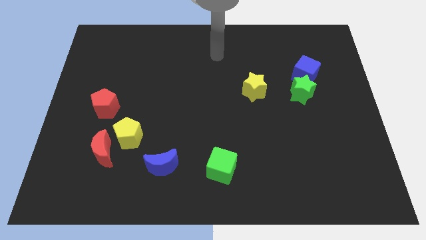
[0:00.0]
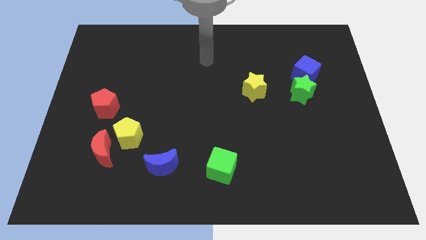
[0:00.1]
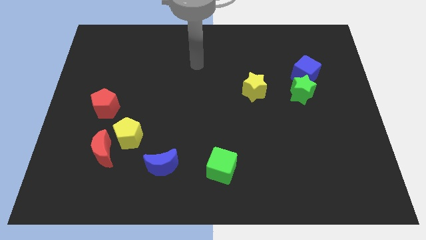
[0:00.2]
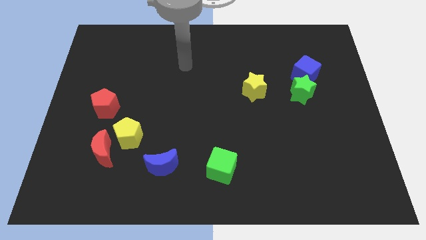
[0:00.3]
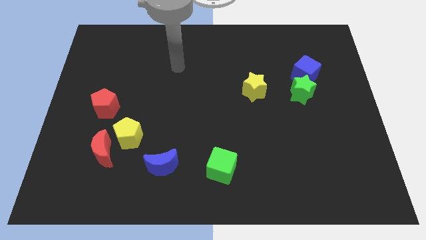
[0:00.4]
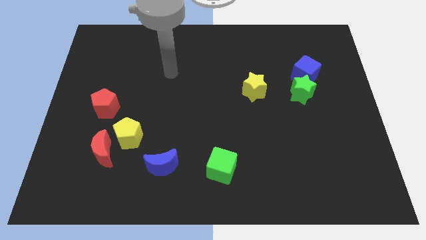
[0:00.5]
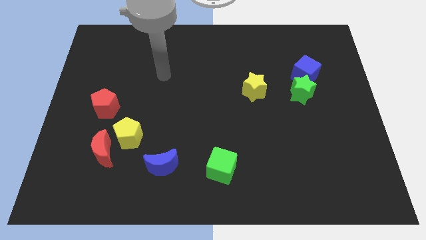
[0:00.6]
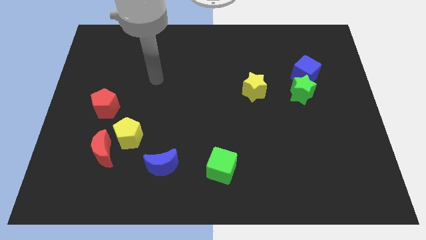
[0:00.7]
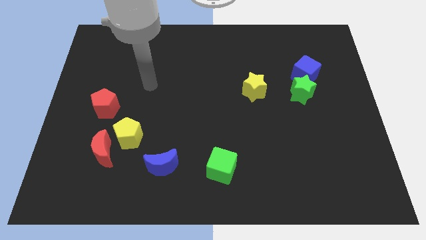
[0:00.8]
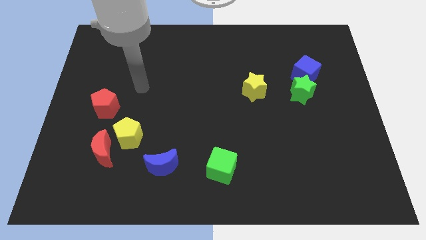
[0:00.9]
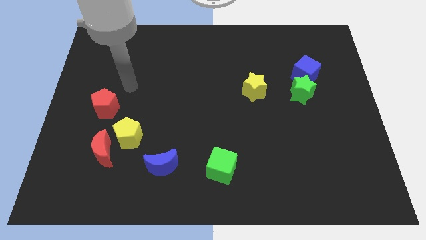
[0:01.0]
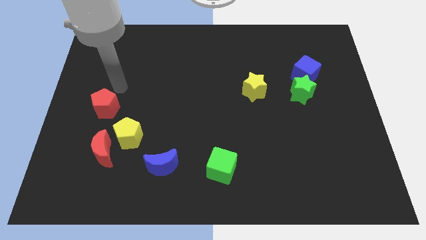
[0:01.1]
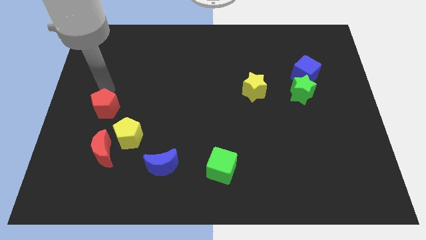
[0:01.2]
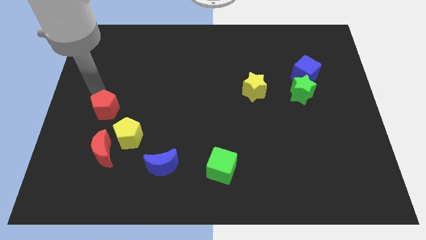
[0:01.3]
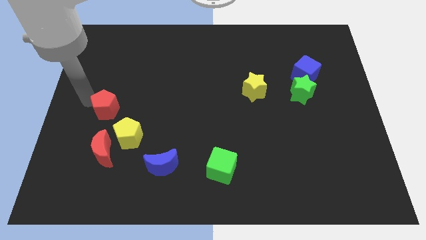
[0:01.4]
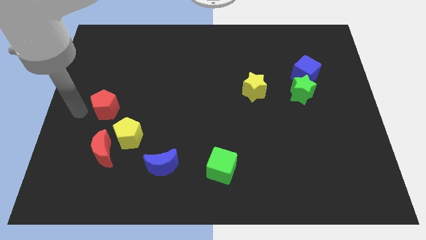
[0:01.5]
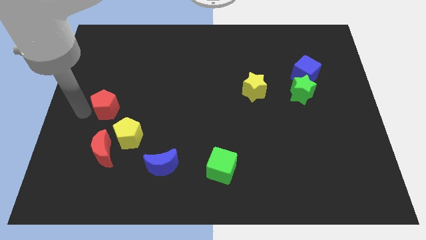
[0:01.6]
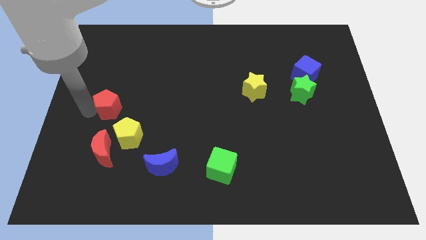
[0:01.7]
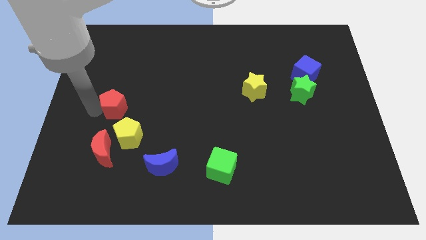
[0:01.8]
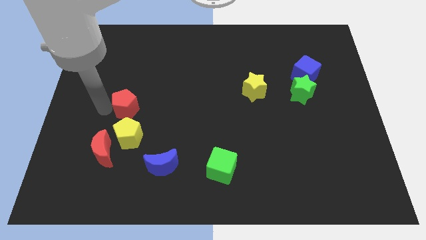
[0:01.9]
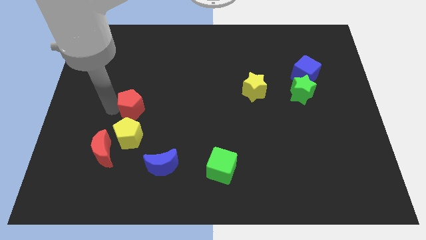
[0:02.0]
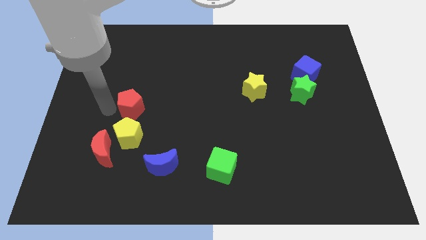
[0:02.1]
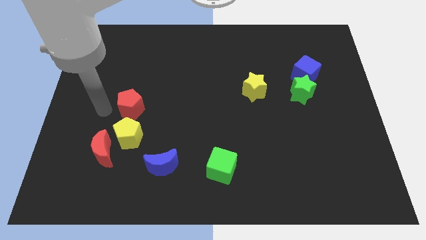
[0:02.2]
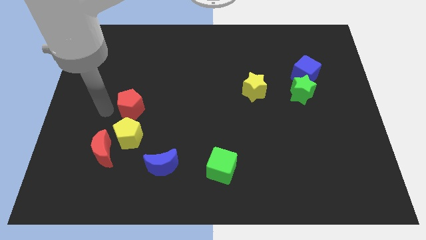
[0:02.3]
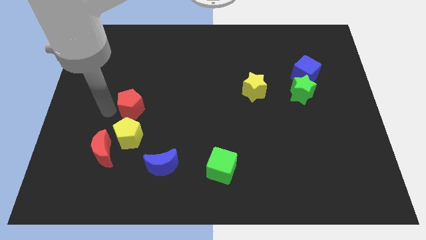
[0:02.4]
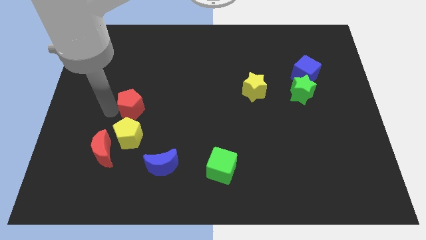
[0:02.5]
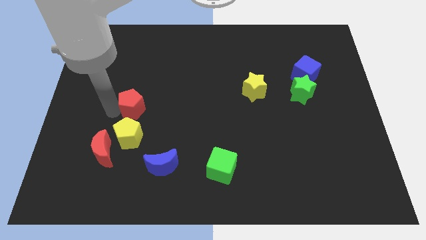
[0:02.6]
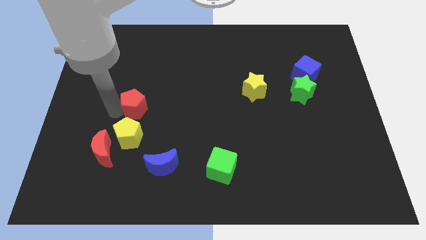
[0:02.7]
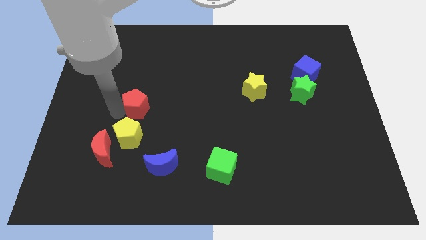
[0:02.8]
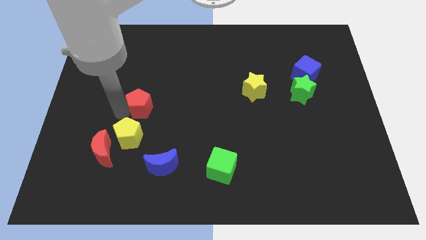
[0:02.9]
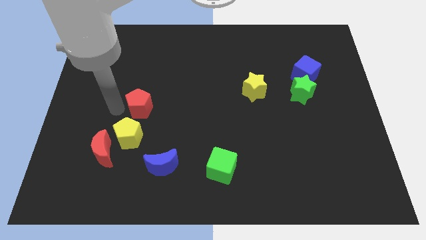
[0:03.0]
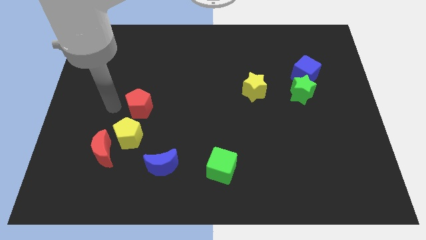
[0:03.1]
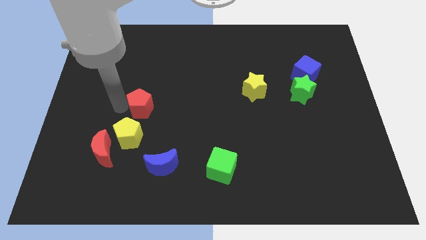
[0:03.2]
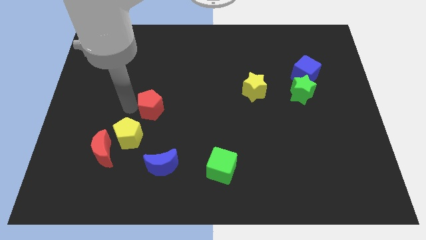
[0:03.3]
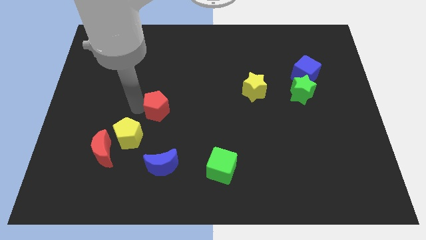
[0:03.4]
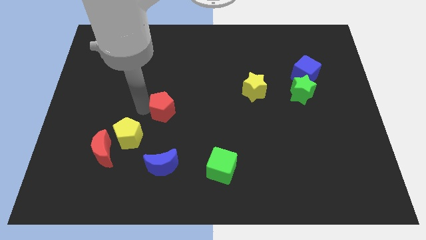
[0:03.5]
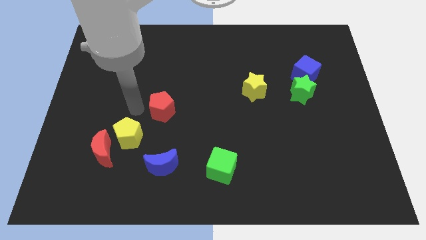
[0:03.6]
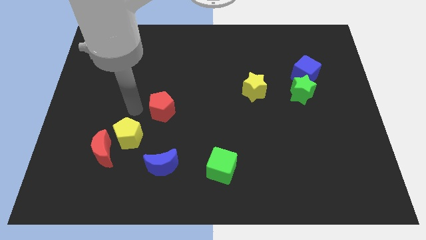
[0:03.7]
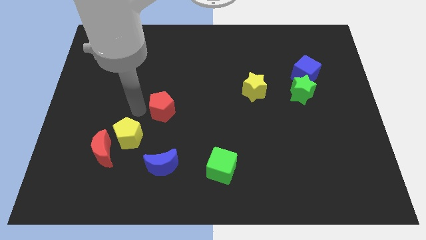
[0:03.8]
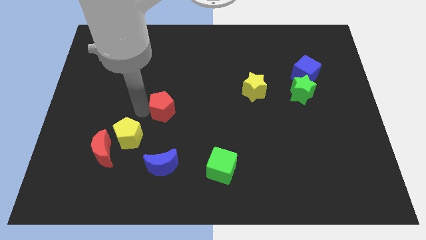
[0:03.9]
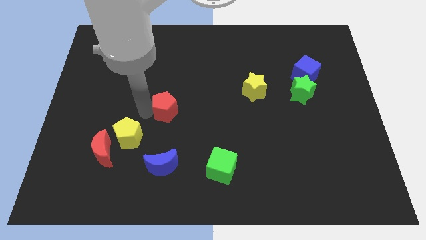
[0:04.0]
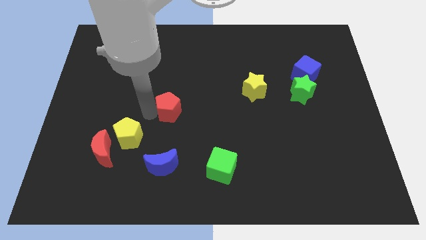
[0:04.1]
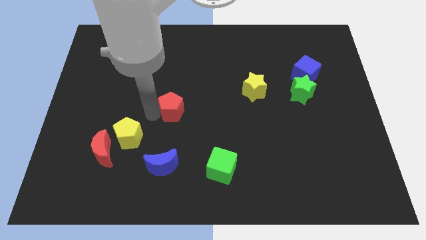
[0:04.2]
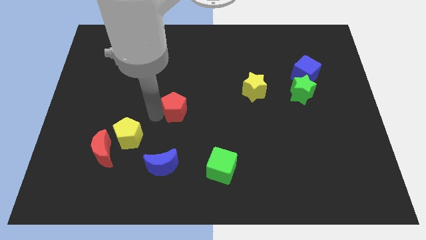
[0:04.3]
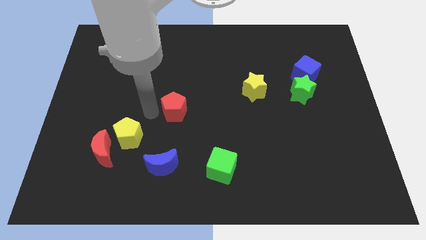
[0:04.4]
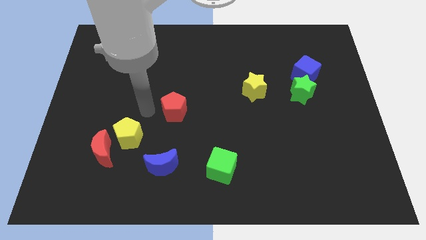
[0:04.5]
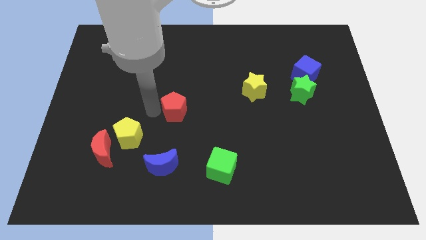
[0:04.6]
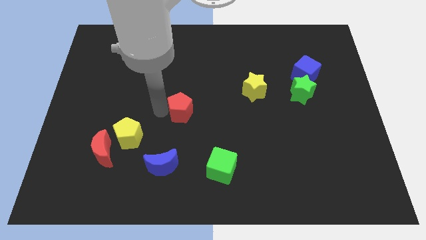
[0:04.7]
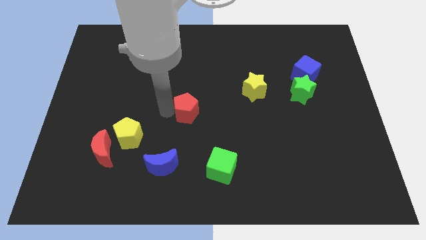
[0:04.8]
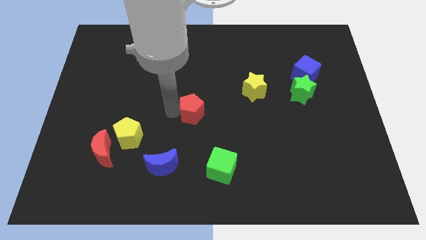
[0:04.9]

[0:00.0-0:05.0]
push the red pentagon right

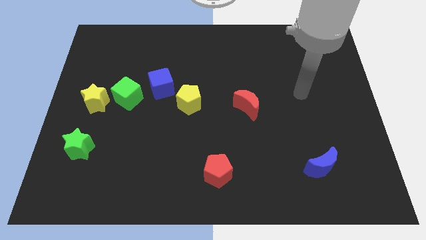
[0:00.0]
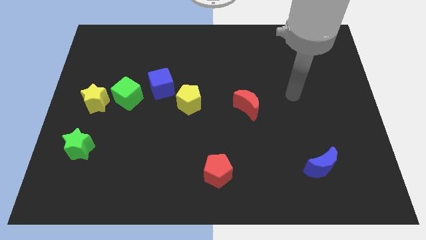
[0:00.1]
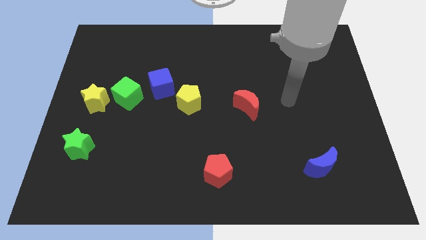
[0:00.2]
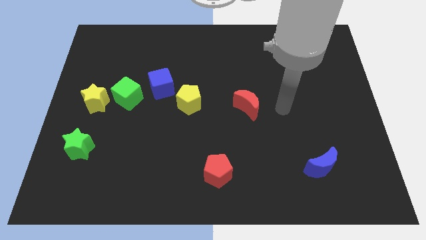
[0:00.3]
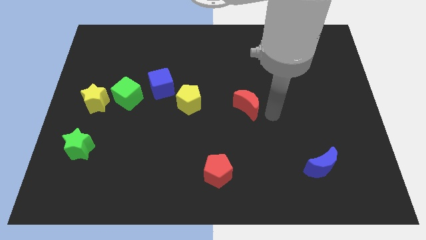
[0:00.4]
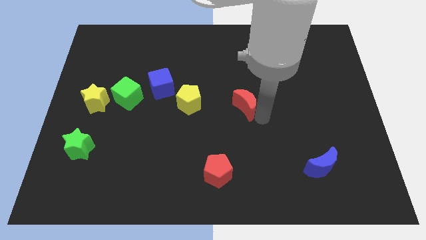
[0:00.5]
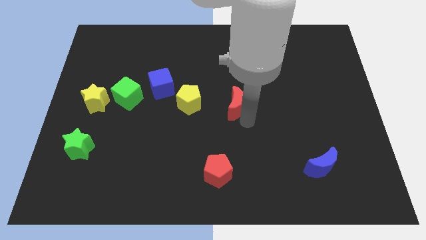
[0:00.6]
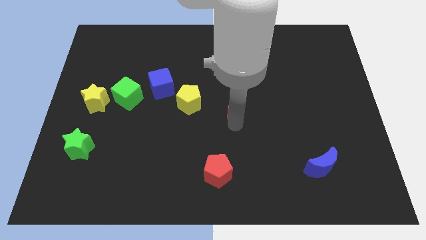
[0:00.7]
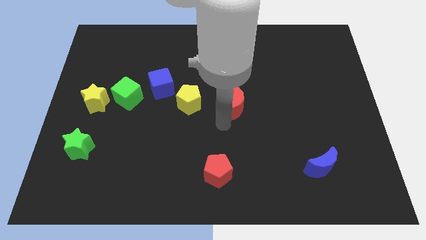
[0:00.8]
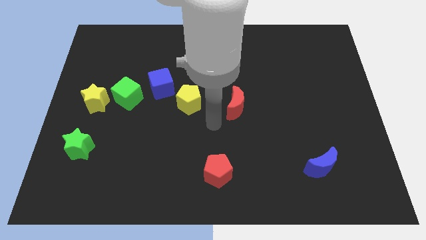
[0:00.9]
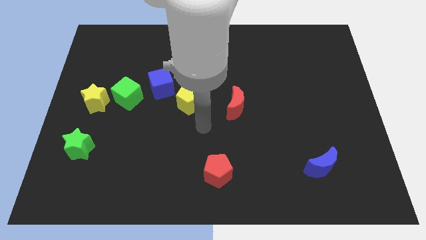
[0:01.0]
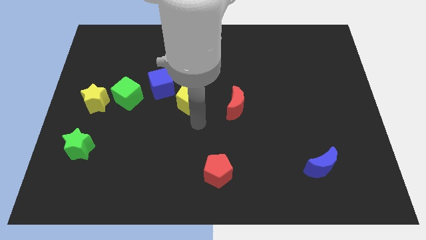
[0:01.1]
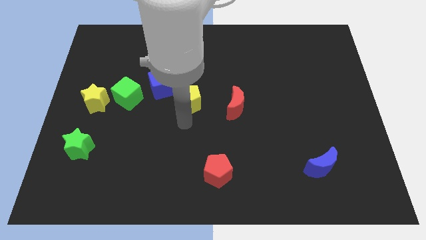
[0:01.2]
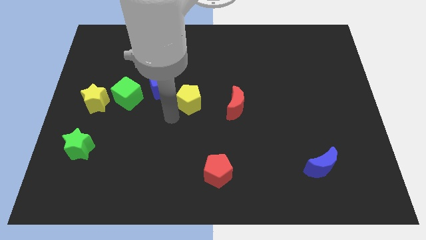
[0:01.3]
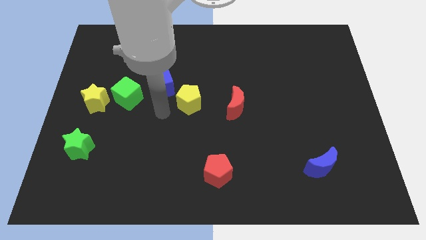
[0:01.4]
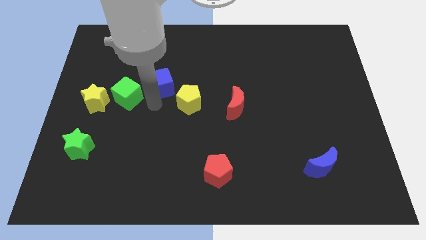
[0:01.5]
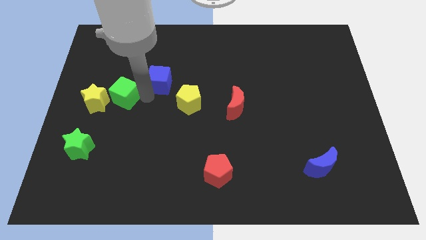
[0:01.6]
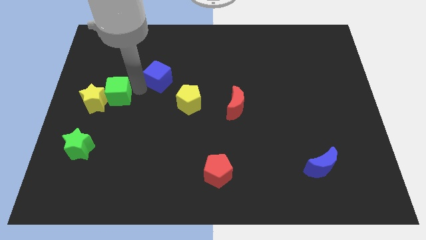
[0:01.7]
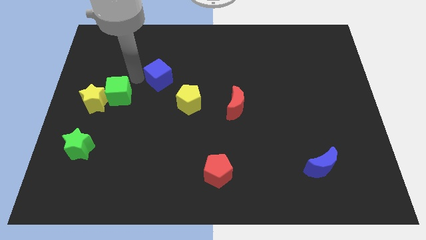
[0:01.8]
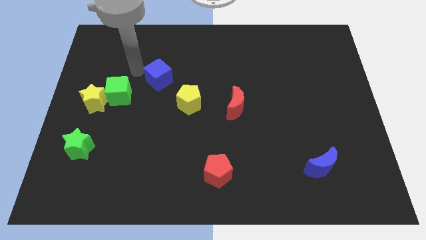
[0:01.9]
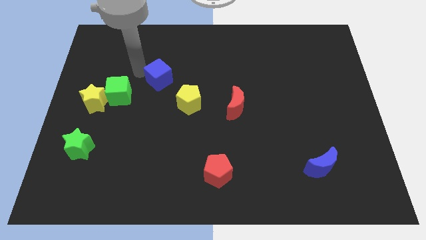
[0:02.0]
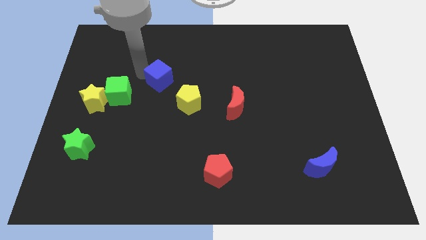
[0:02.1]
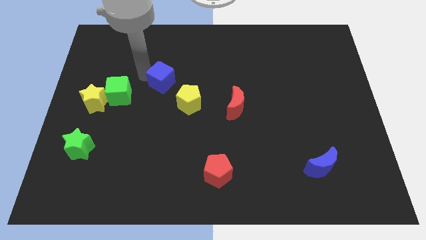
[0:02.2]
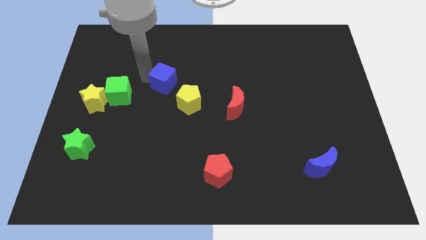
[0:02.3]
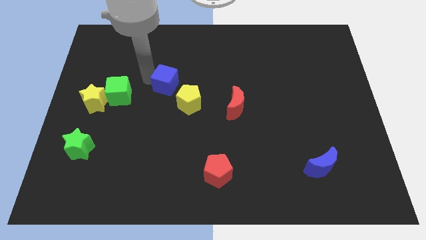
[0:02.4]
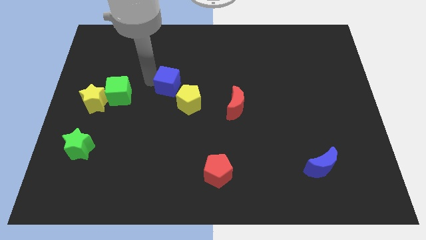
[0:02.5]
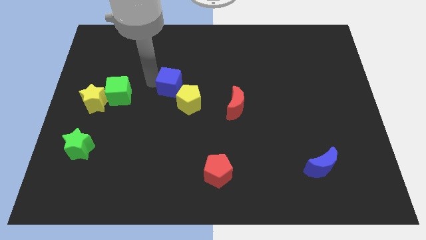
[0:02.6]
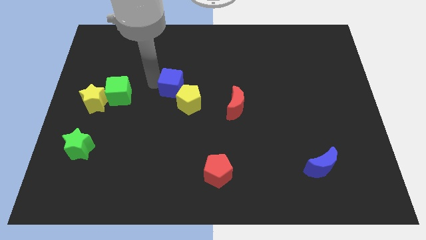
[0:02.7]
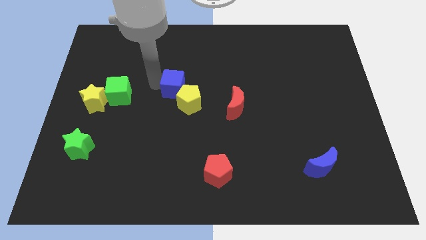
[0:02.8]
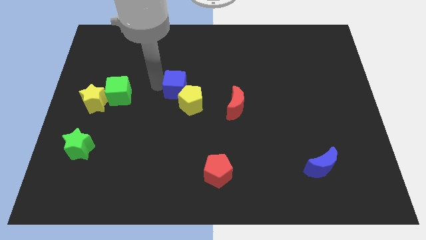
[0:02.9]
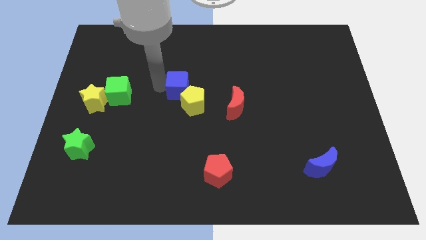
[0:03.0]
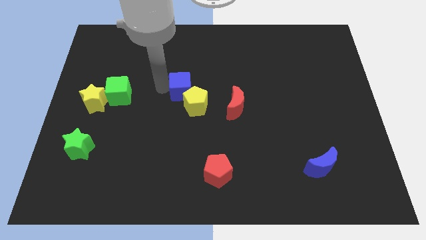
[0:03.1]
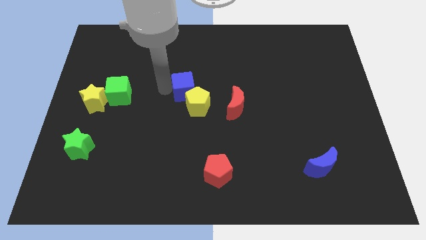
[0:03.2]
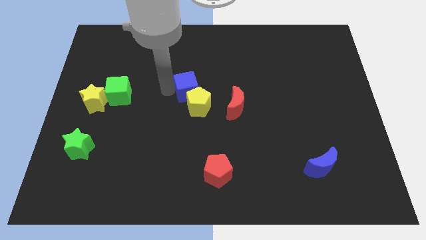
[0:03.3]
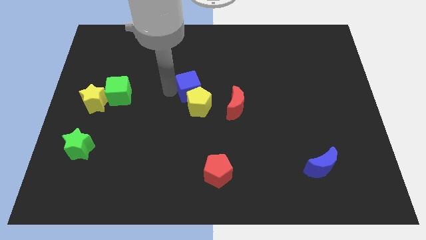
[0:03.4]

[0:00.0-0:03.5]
move the blue cube right somewhat
